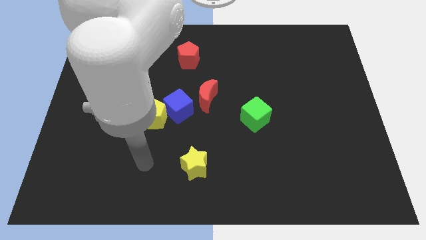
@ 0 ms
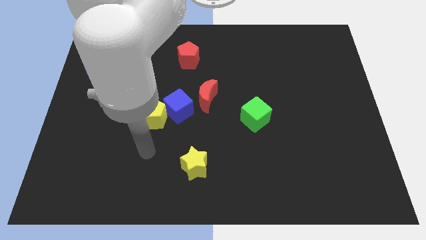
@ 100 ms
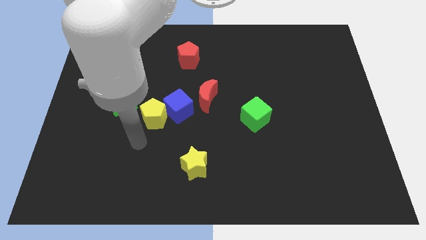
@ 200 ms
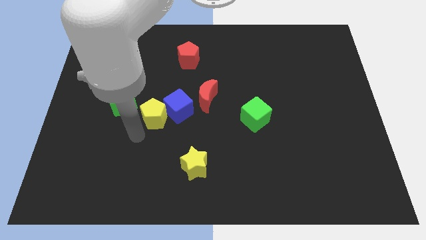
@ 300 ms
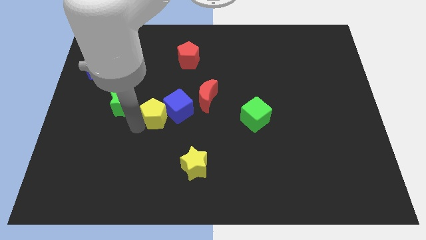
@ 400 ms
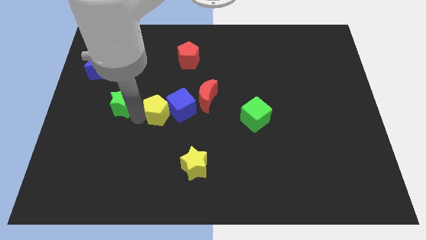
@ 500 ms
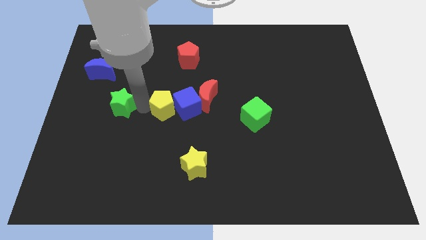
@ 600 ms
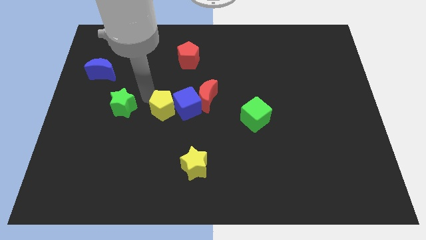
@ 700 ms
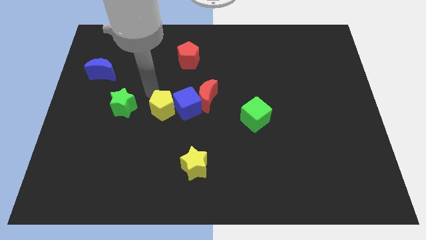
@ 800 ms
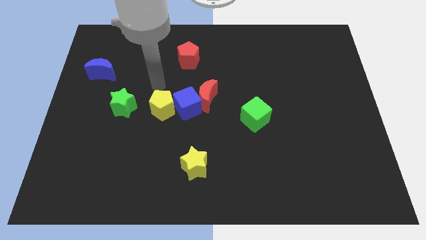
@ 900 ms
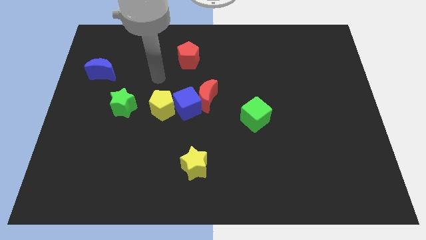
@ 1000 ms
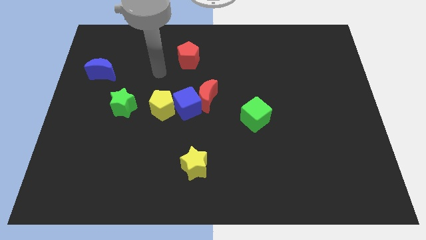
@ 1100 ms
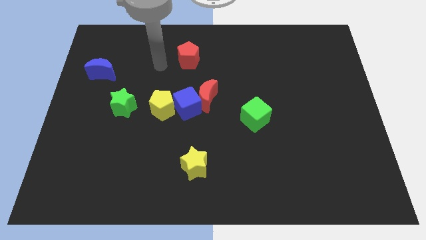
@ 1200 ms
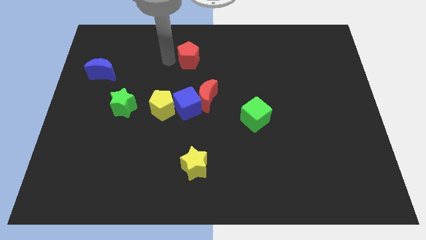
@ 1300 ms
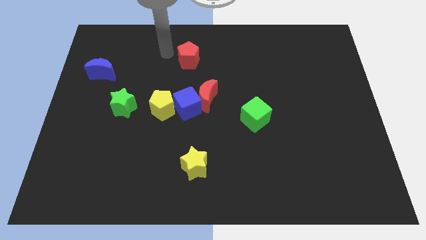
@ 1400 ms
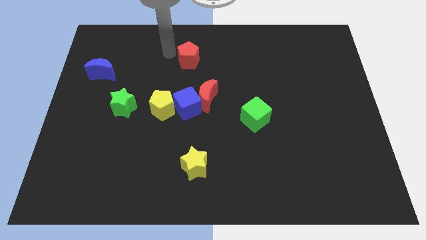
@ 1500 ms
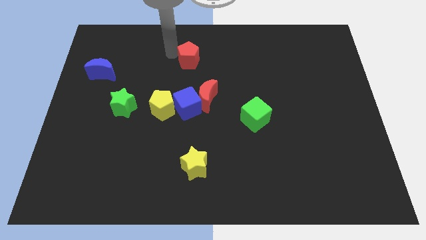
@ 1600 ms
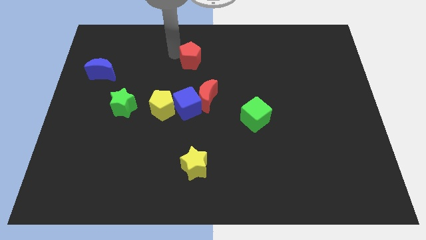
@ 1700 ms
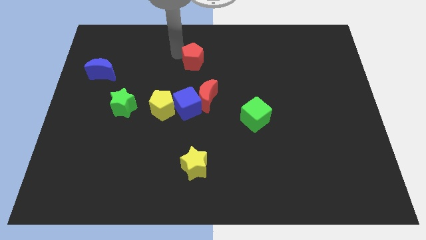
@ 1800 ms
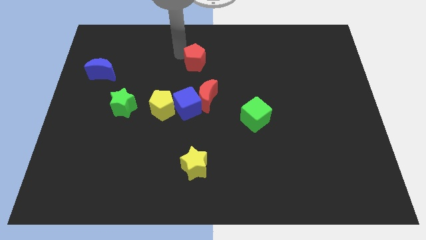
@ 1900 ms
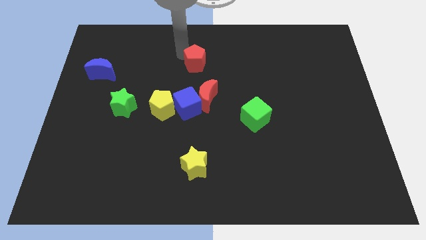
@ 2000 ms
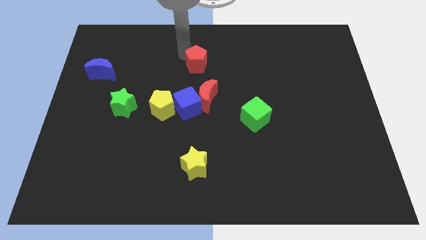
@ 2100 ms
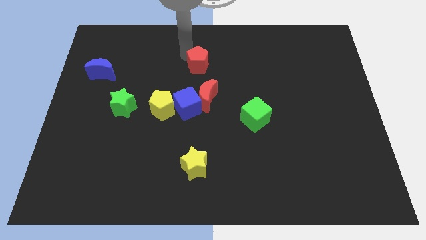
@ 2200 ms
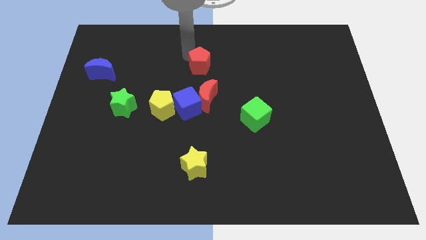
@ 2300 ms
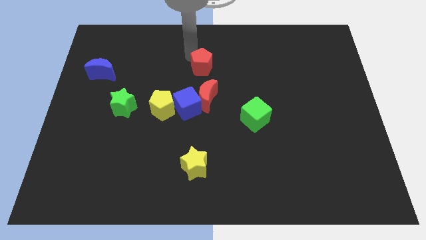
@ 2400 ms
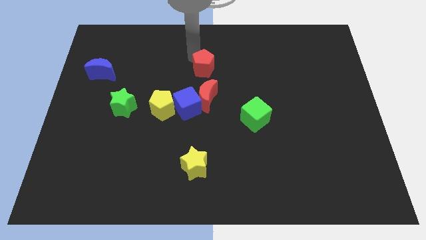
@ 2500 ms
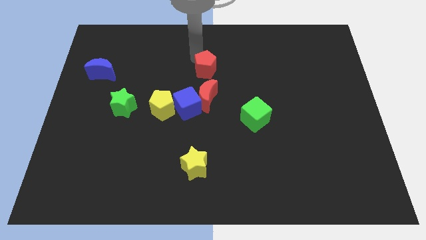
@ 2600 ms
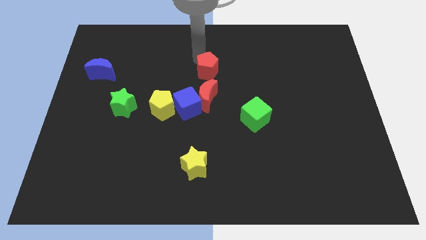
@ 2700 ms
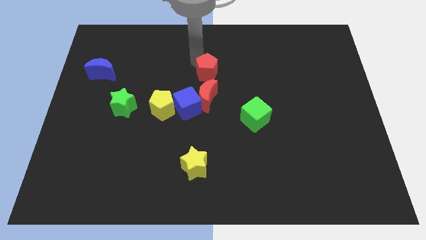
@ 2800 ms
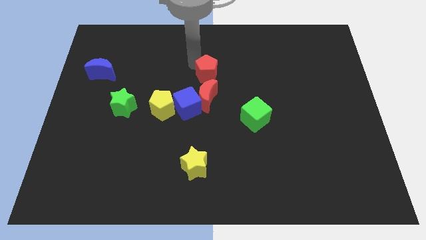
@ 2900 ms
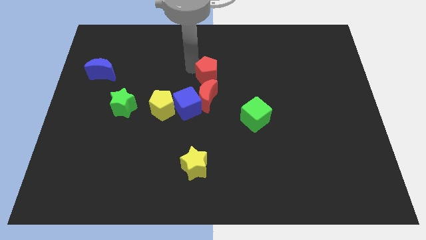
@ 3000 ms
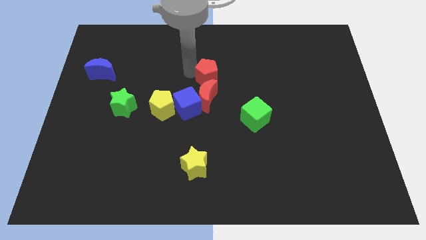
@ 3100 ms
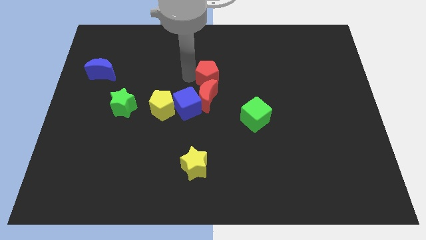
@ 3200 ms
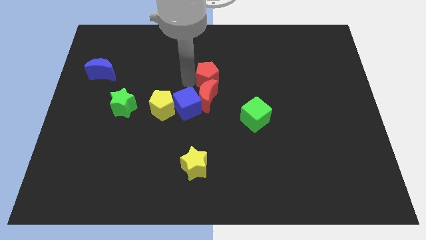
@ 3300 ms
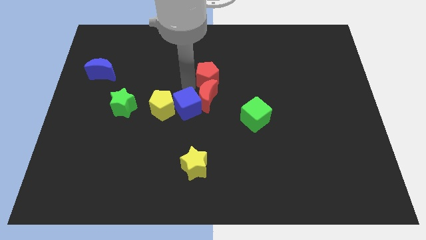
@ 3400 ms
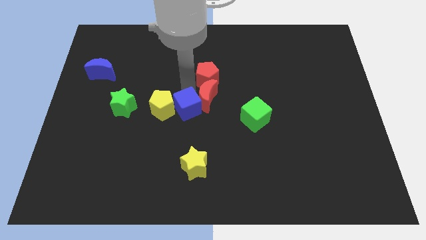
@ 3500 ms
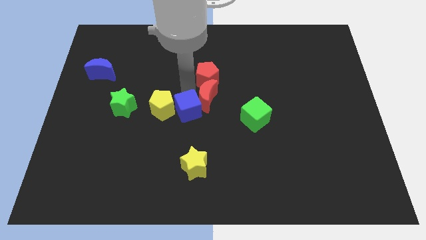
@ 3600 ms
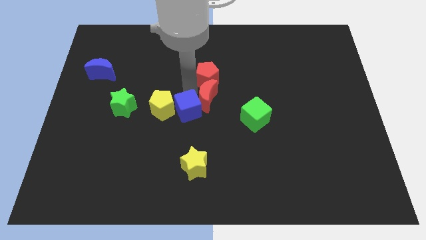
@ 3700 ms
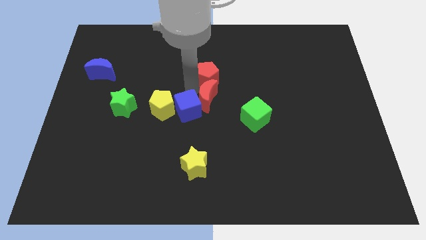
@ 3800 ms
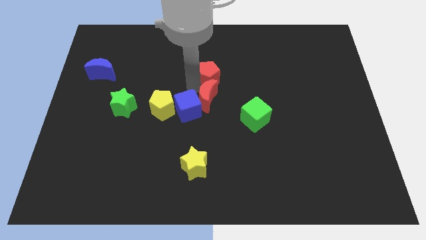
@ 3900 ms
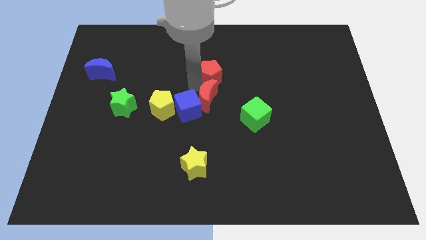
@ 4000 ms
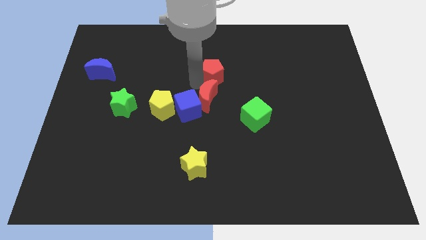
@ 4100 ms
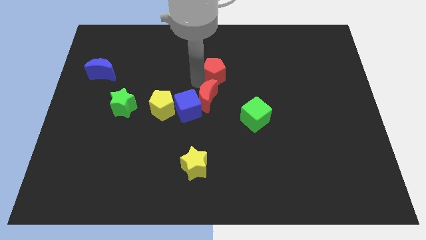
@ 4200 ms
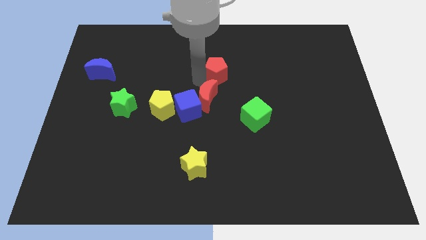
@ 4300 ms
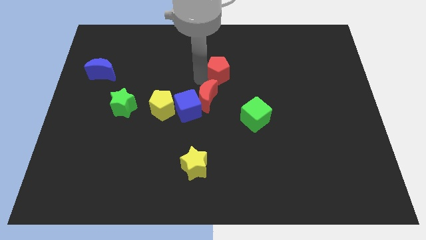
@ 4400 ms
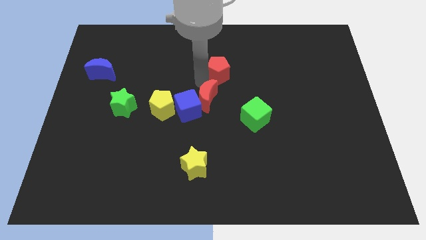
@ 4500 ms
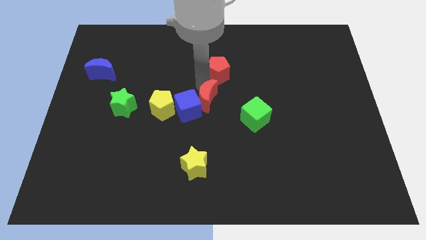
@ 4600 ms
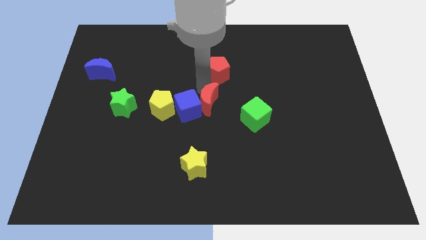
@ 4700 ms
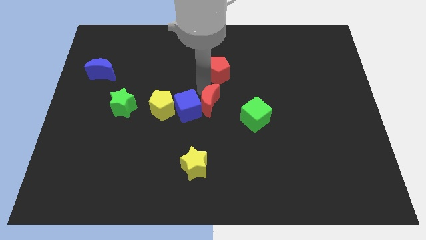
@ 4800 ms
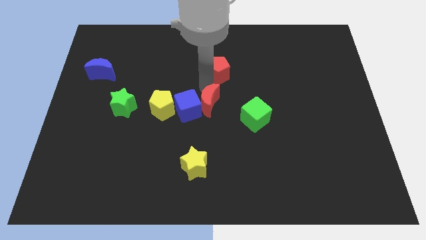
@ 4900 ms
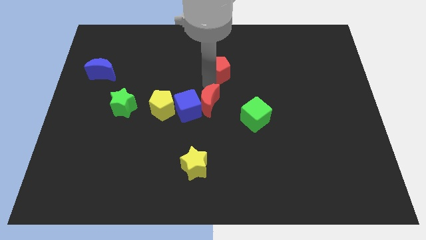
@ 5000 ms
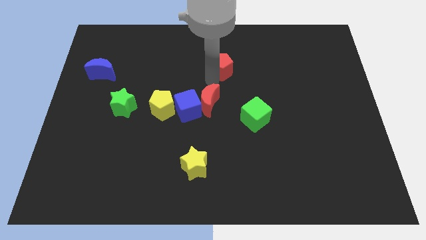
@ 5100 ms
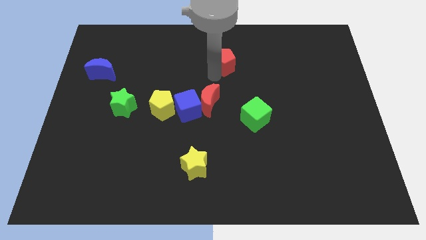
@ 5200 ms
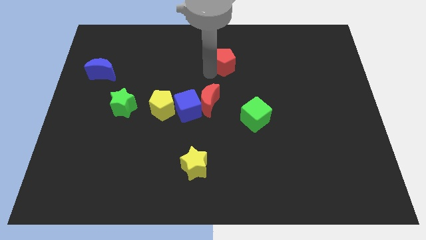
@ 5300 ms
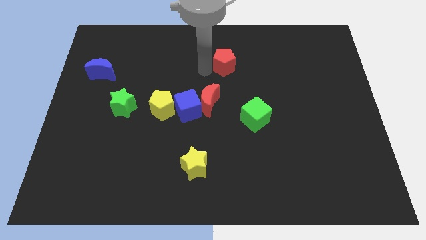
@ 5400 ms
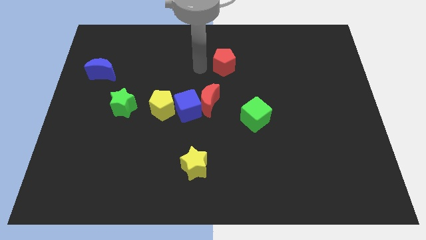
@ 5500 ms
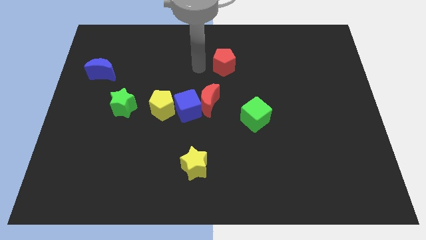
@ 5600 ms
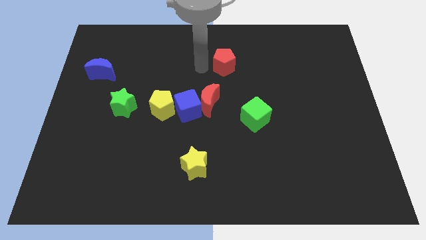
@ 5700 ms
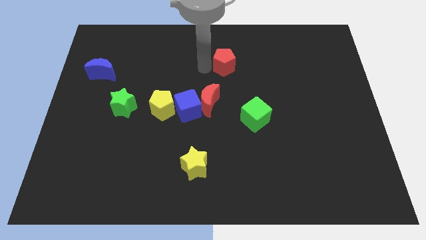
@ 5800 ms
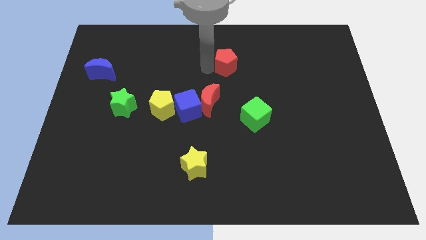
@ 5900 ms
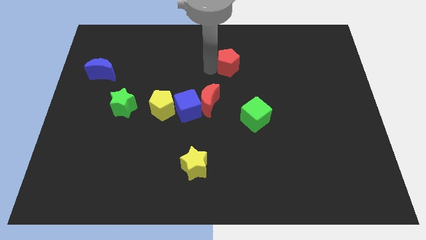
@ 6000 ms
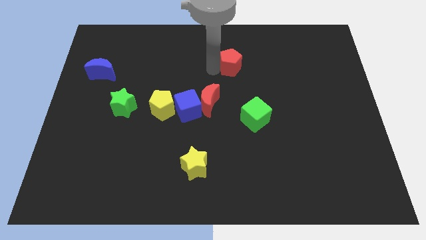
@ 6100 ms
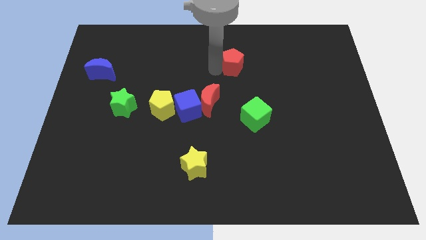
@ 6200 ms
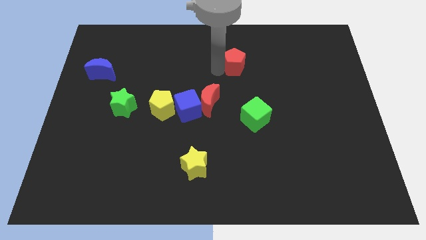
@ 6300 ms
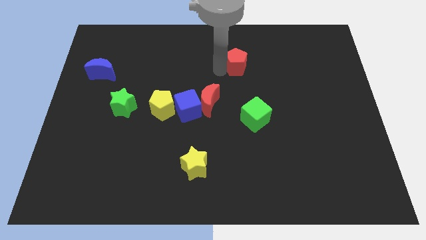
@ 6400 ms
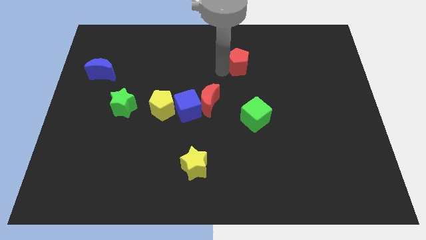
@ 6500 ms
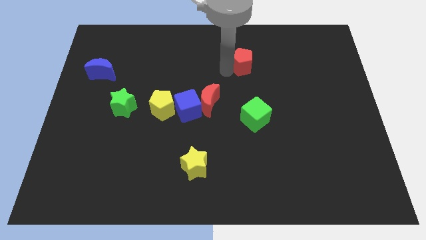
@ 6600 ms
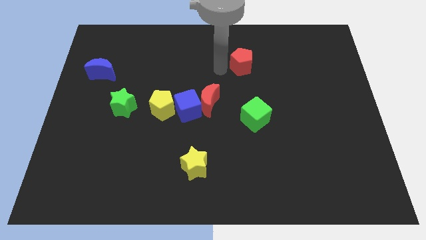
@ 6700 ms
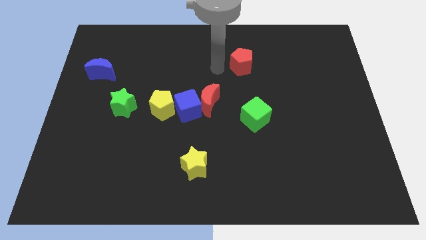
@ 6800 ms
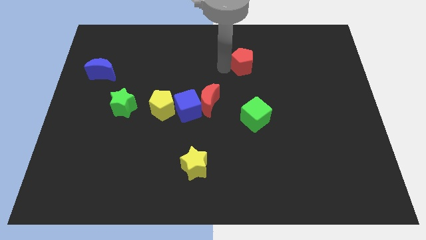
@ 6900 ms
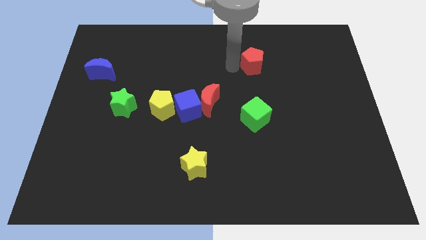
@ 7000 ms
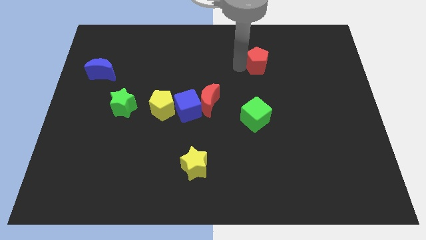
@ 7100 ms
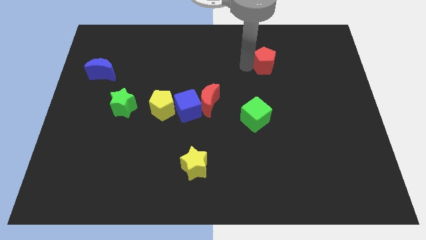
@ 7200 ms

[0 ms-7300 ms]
push the red pentagon to the right

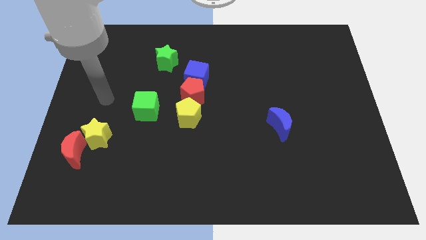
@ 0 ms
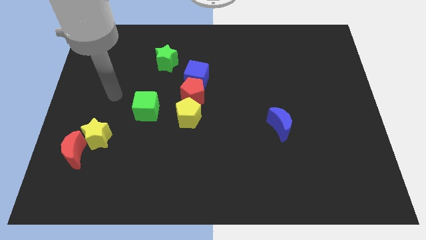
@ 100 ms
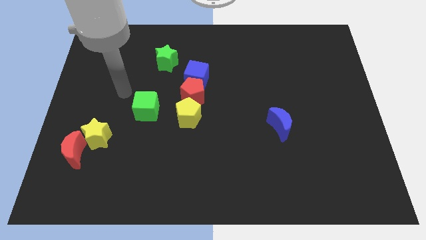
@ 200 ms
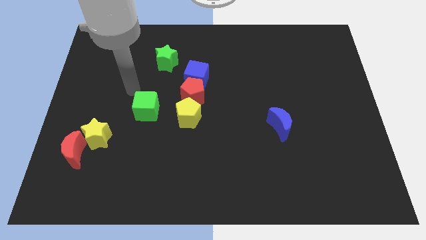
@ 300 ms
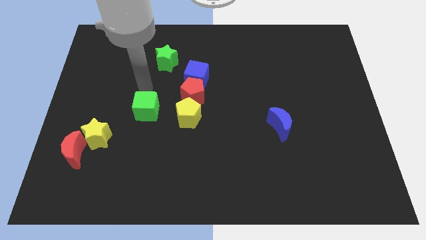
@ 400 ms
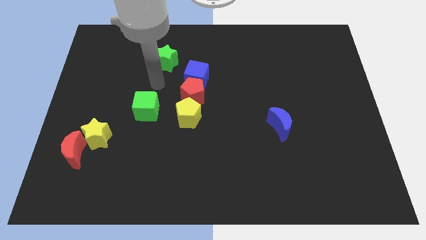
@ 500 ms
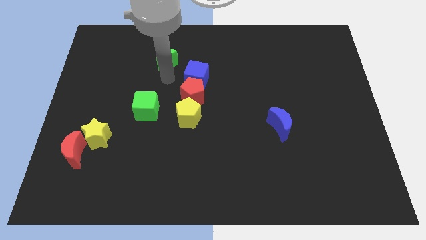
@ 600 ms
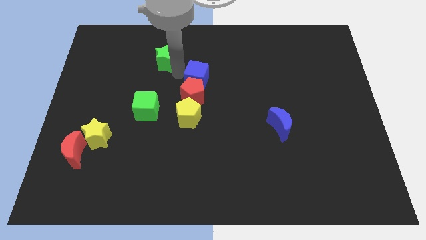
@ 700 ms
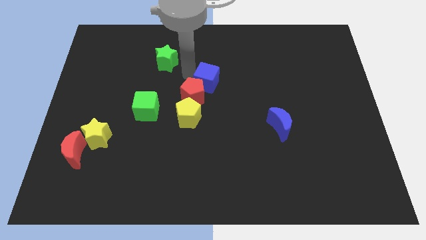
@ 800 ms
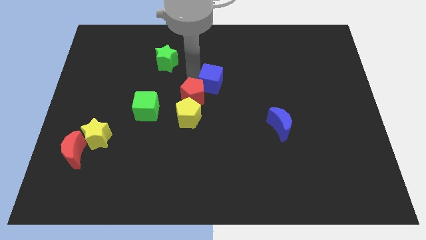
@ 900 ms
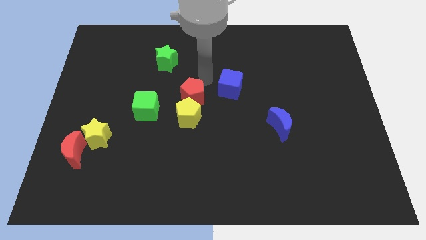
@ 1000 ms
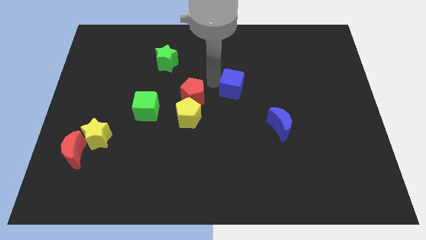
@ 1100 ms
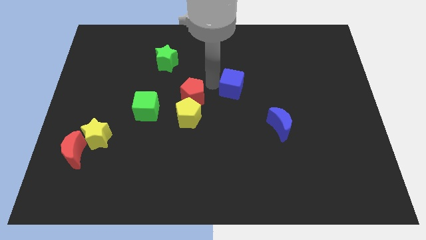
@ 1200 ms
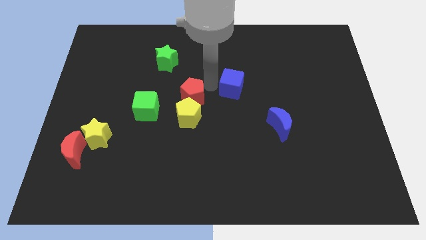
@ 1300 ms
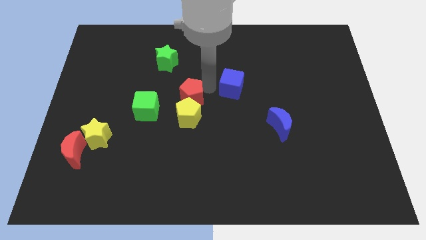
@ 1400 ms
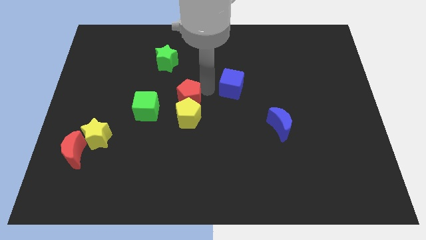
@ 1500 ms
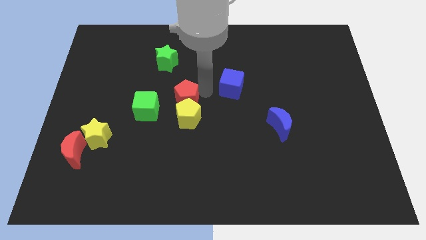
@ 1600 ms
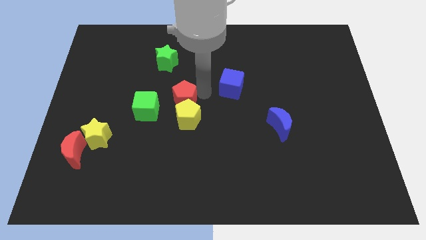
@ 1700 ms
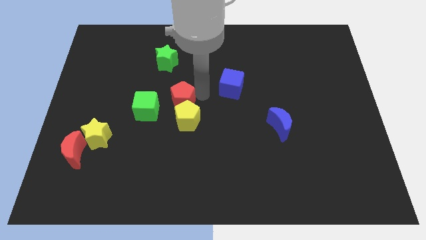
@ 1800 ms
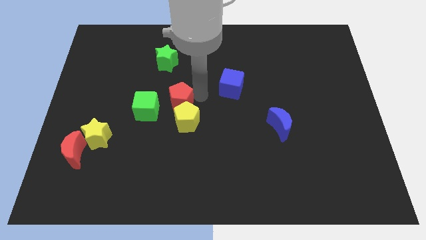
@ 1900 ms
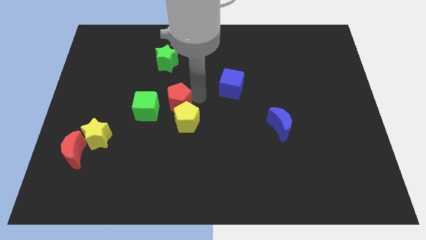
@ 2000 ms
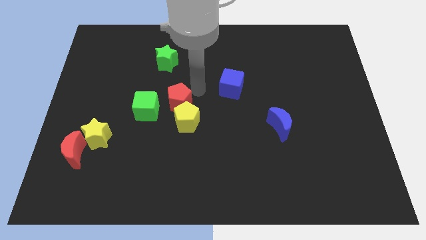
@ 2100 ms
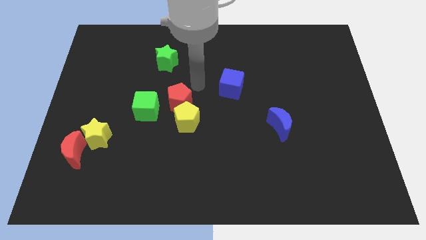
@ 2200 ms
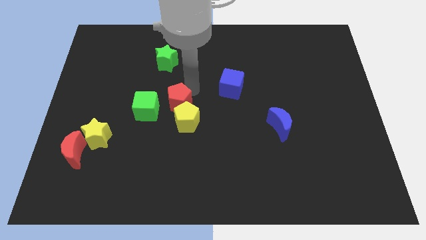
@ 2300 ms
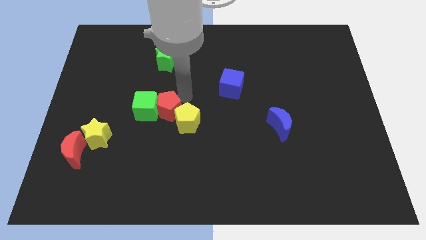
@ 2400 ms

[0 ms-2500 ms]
push the red pentagon a bit downwards and left diagonally
